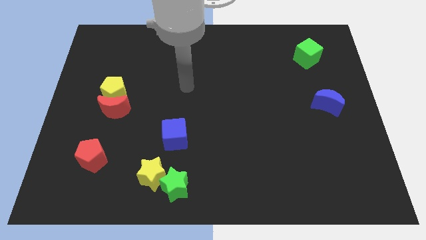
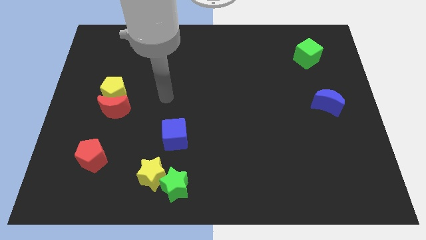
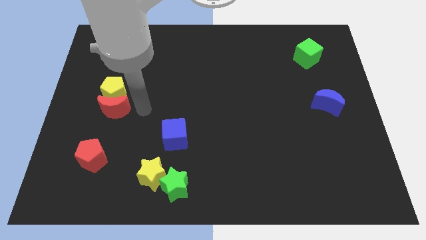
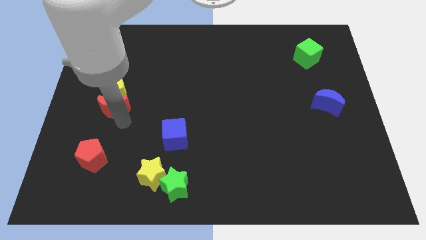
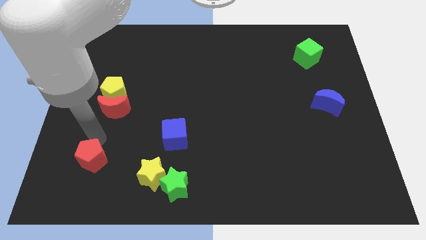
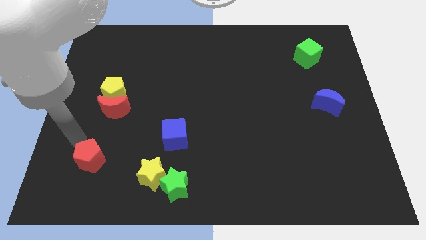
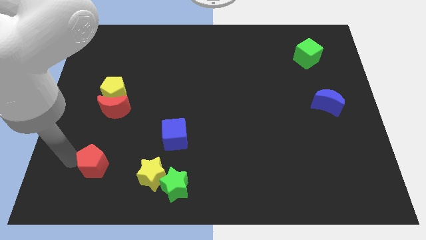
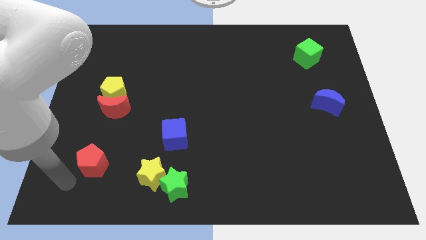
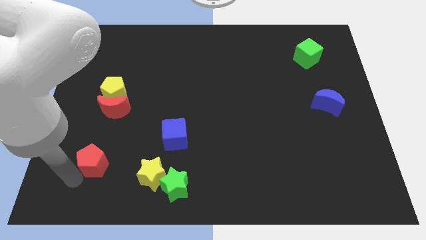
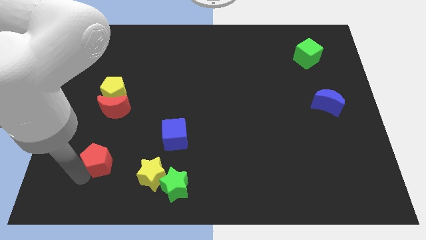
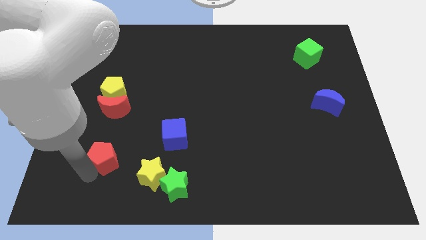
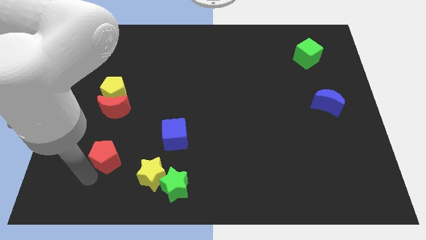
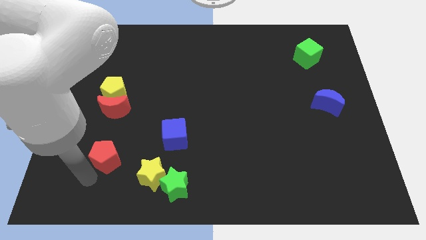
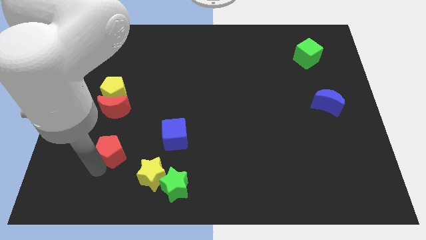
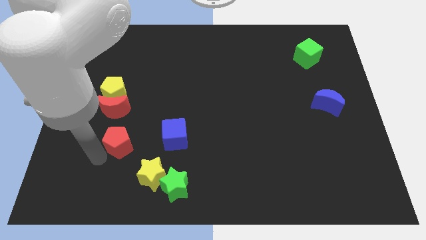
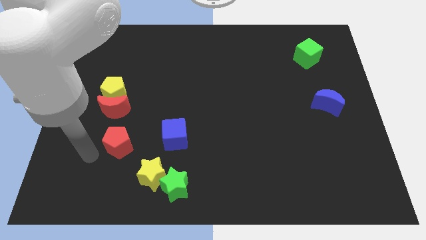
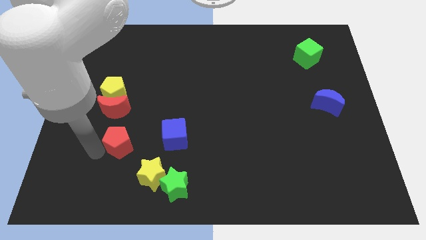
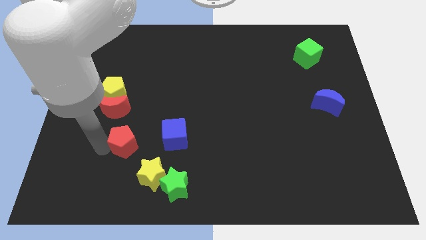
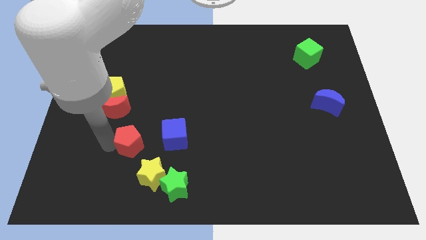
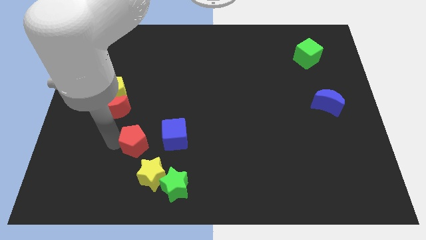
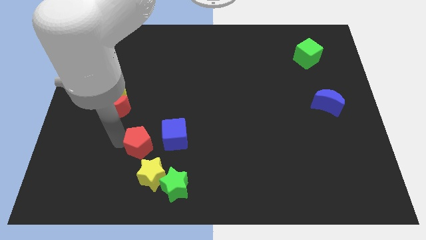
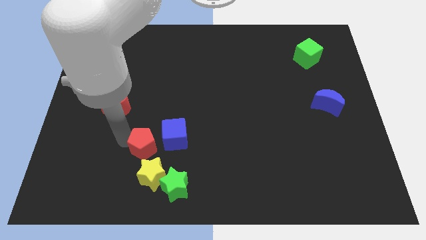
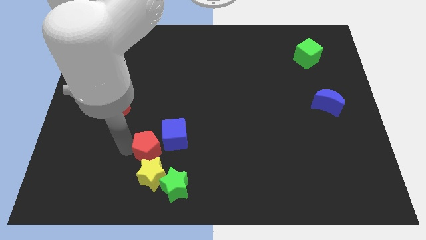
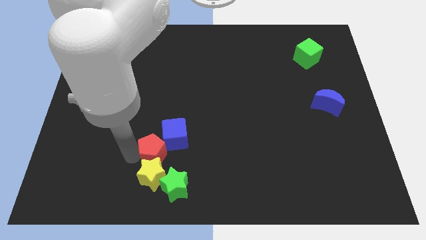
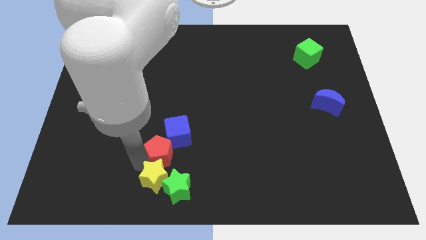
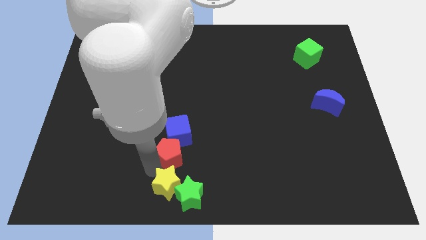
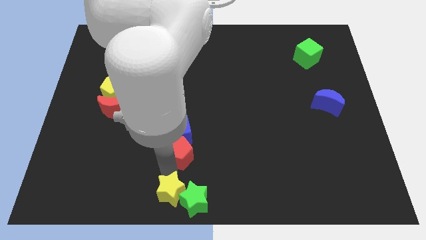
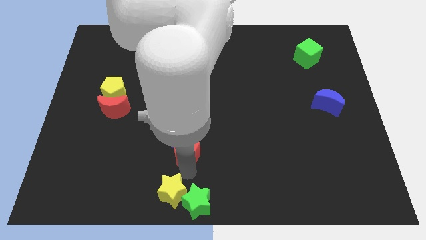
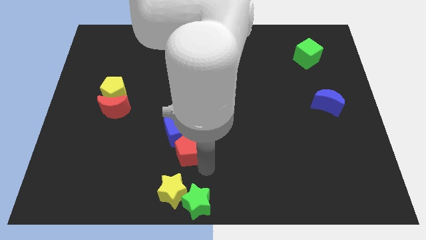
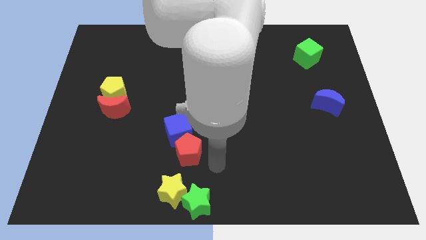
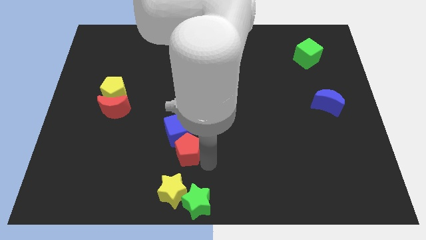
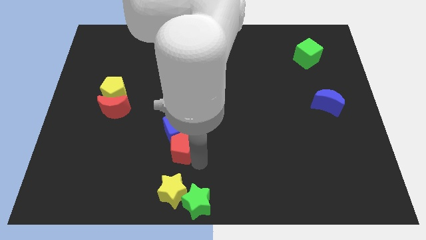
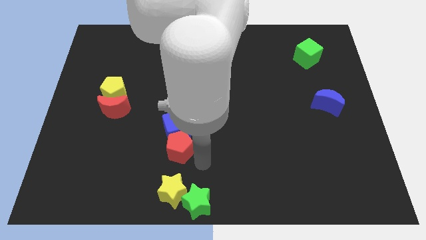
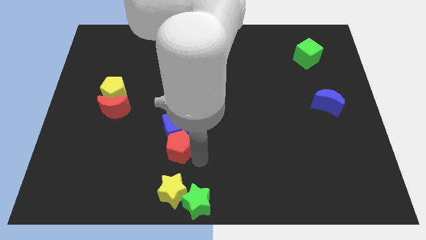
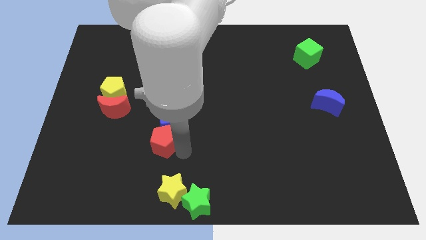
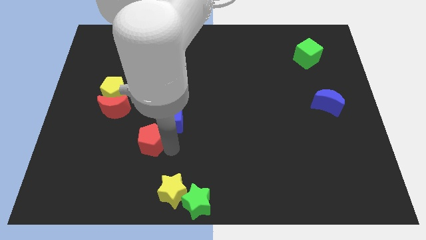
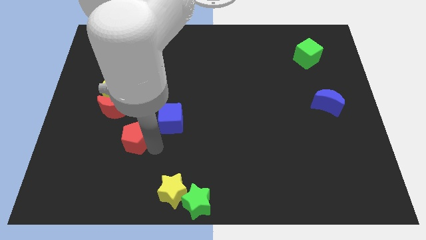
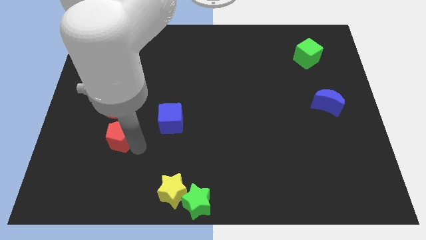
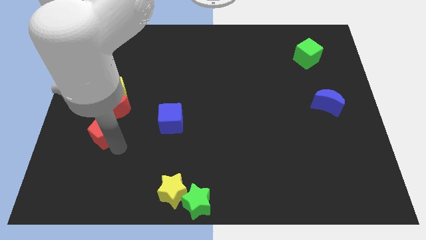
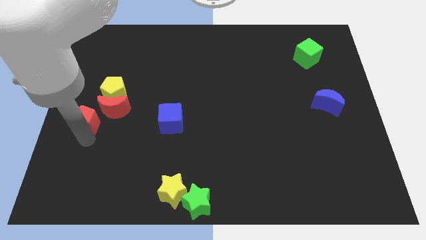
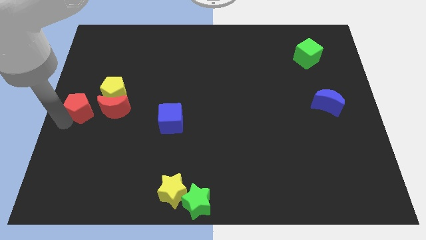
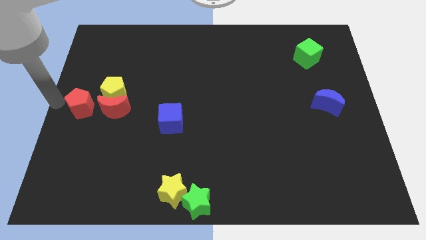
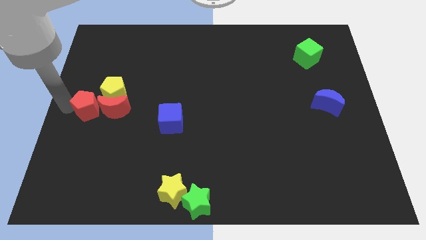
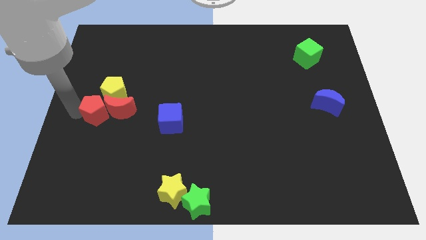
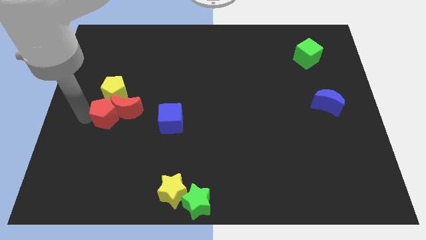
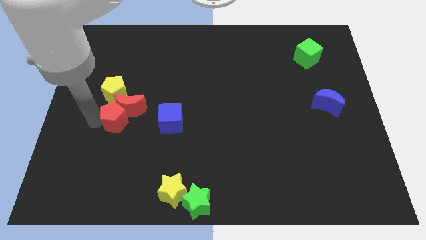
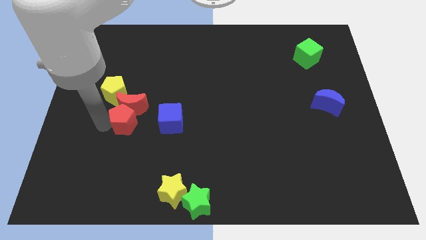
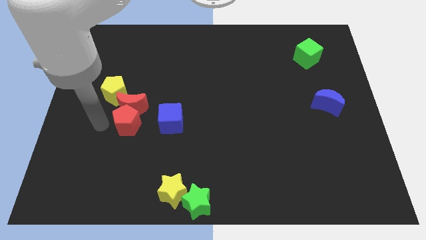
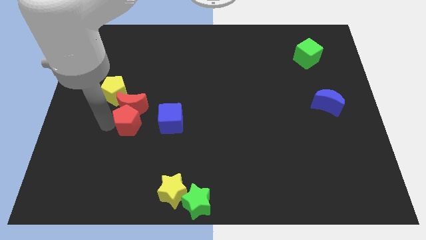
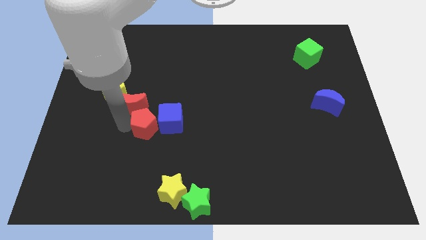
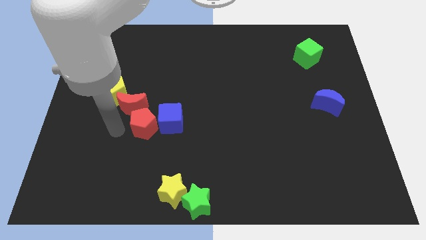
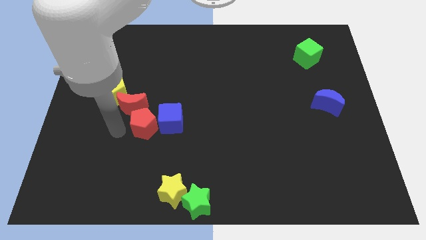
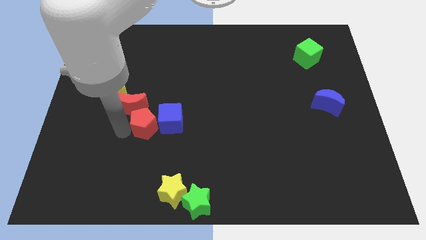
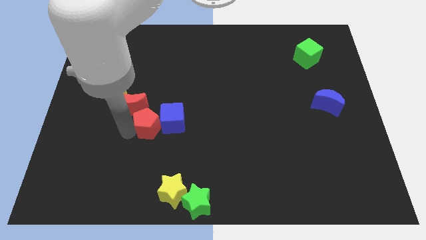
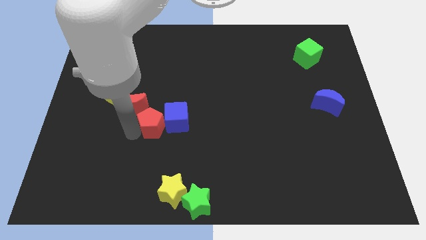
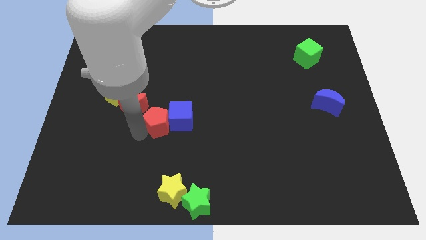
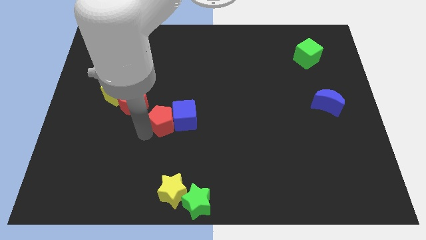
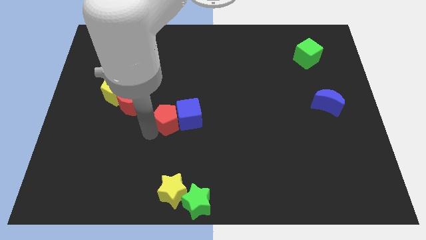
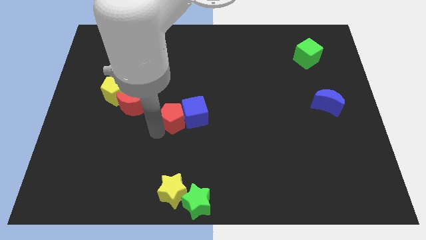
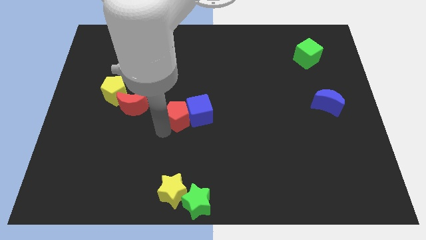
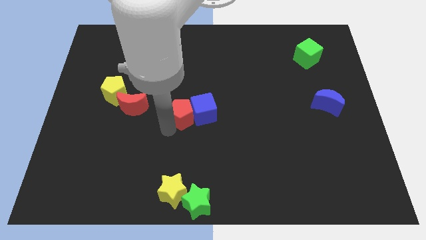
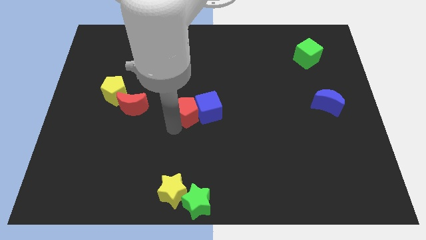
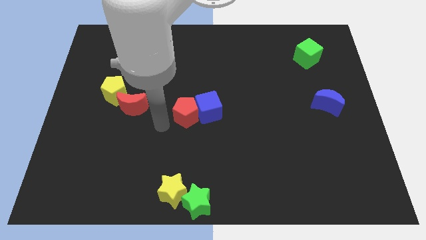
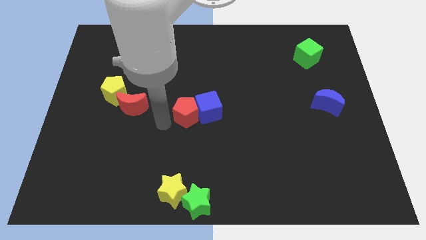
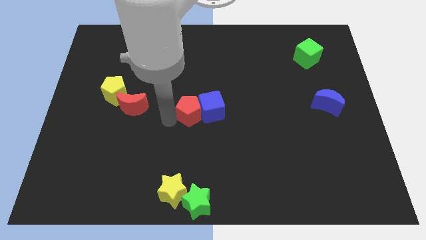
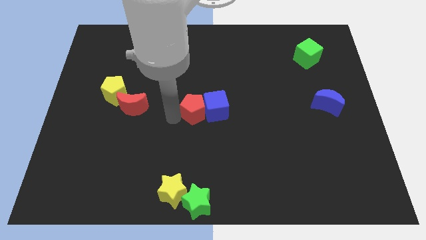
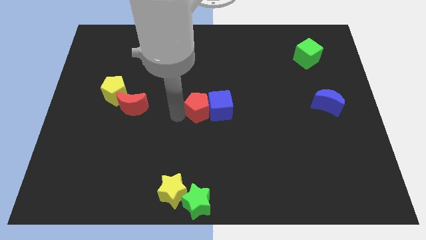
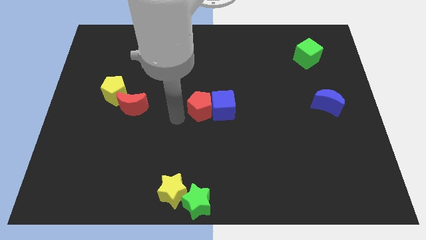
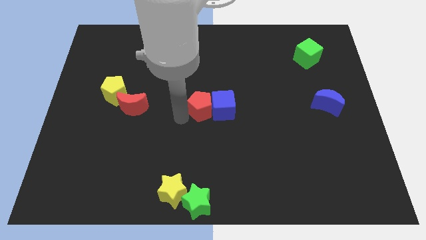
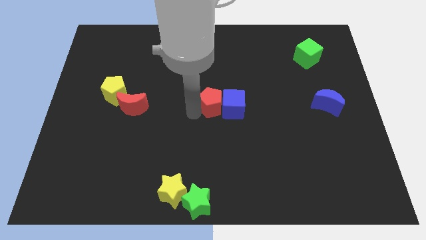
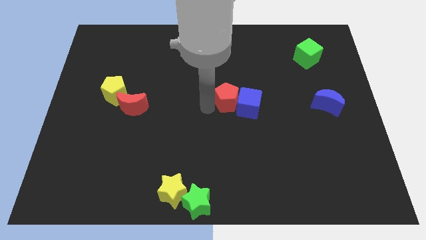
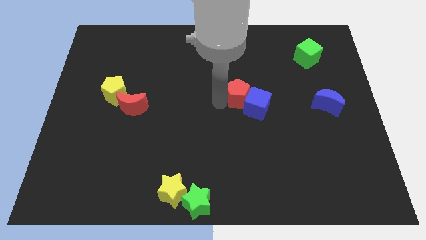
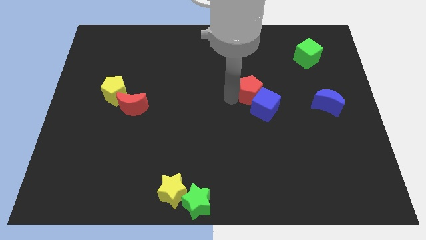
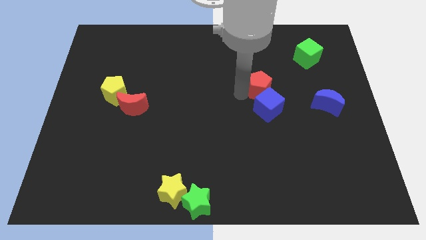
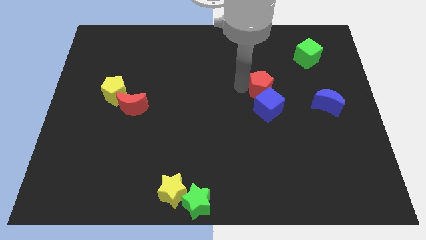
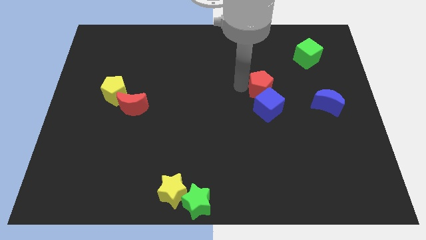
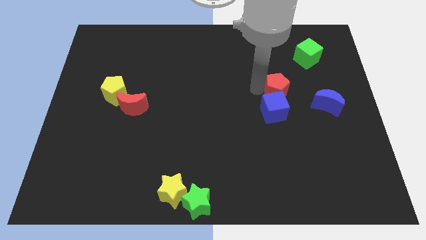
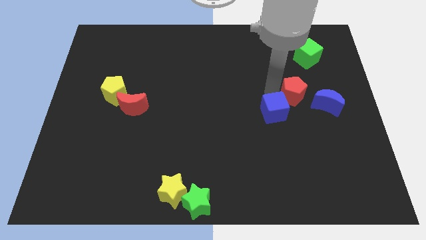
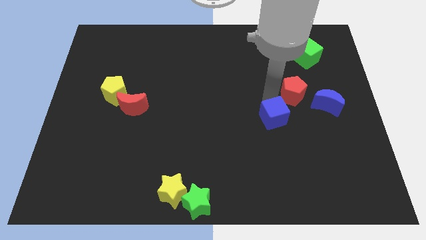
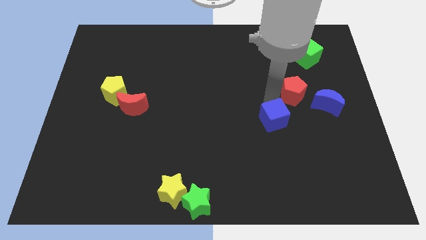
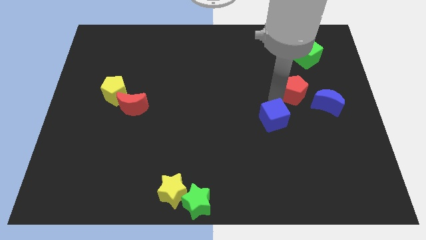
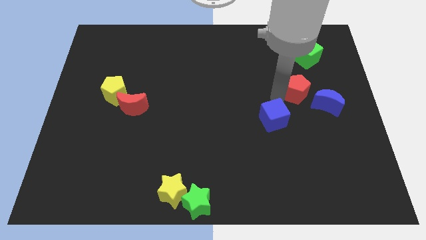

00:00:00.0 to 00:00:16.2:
slide the red pentagon to the bottom of the green cube
